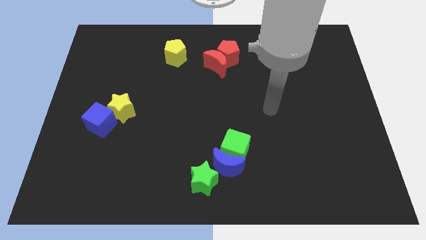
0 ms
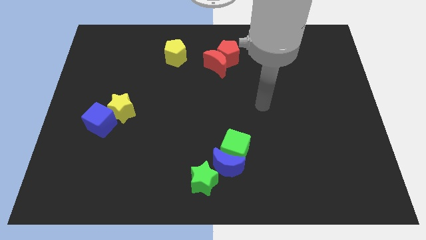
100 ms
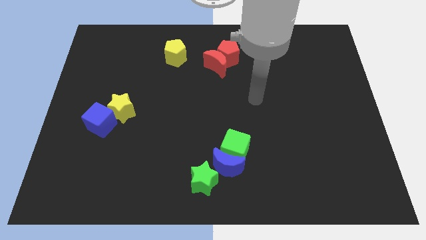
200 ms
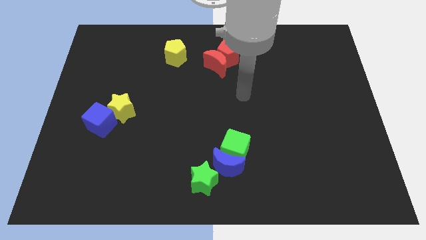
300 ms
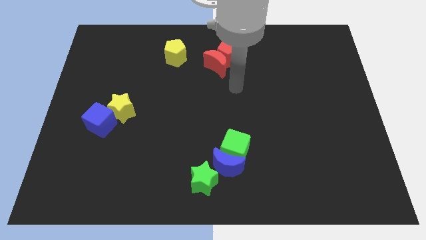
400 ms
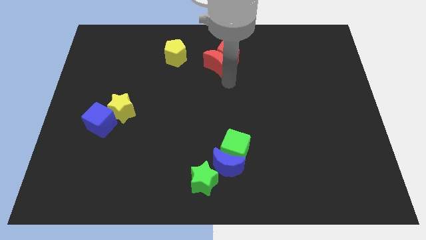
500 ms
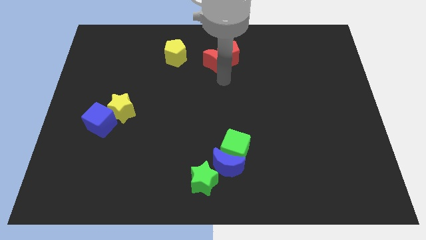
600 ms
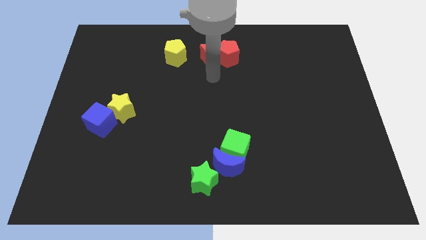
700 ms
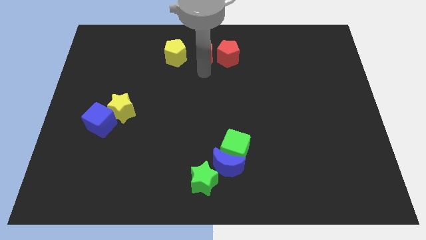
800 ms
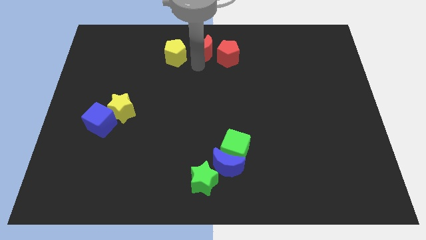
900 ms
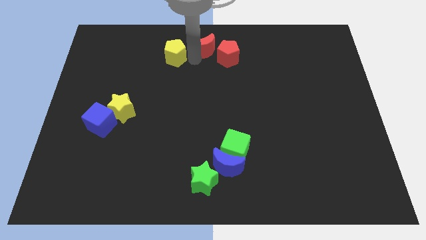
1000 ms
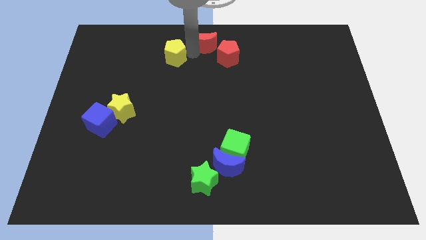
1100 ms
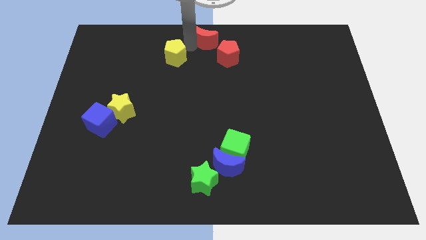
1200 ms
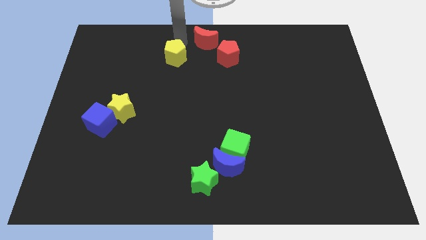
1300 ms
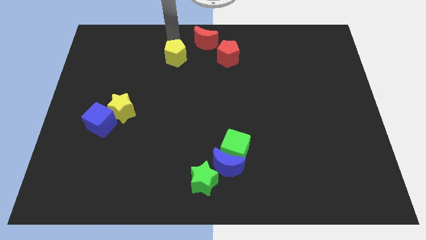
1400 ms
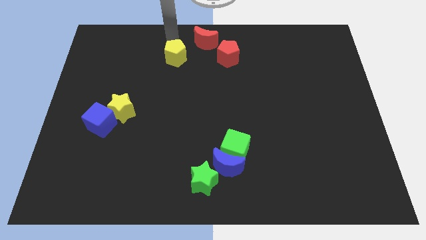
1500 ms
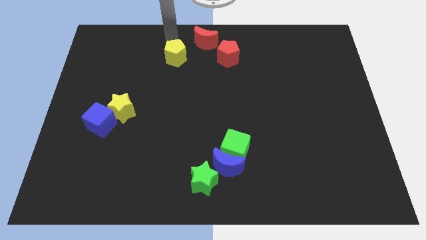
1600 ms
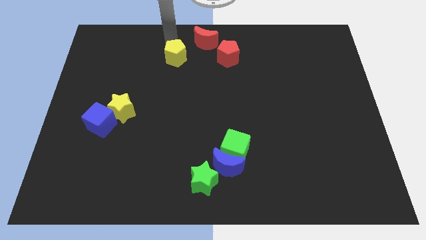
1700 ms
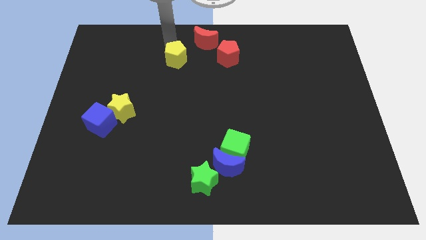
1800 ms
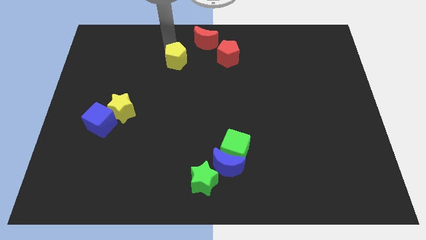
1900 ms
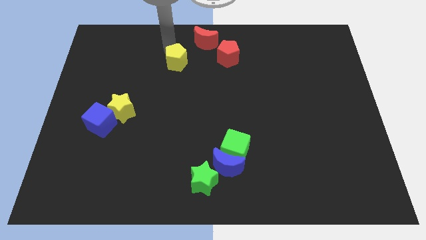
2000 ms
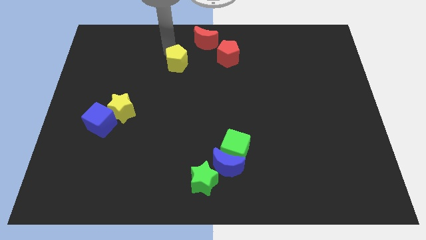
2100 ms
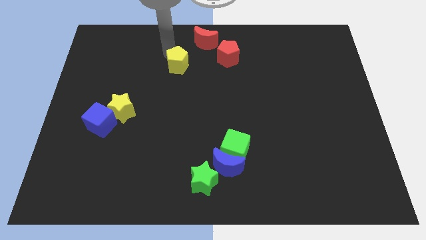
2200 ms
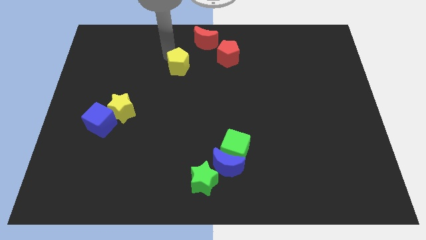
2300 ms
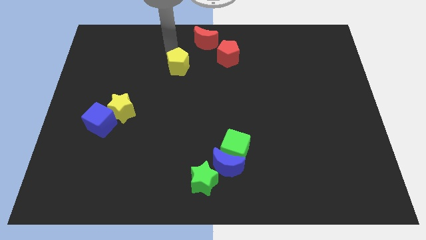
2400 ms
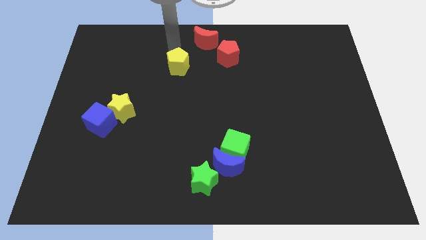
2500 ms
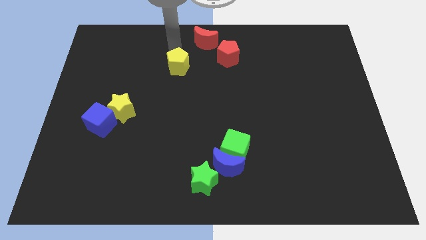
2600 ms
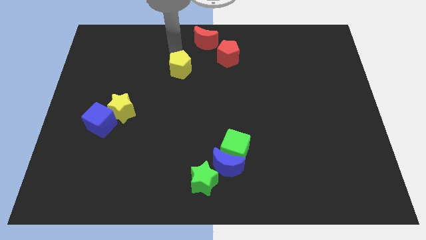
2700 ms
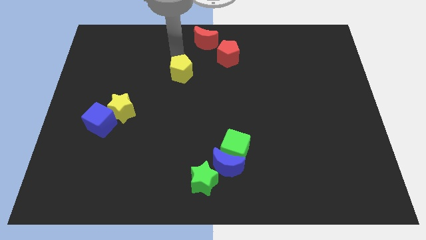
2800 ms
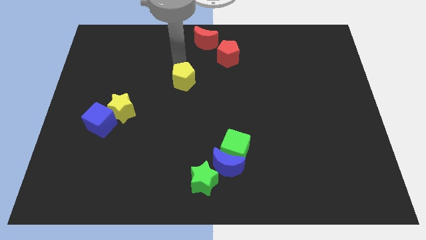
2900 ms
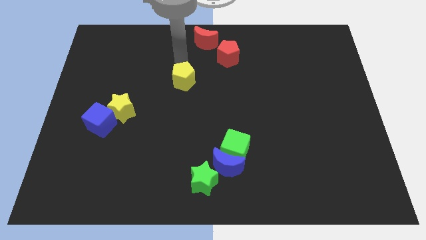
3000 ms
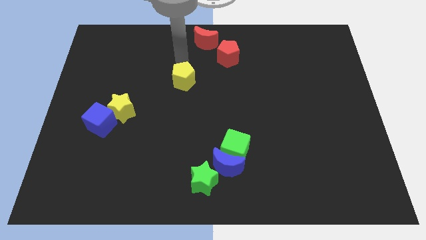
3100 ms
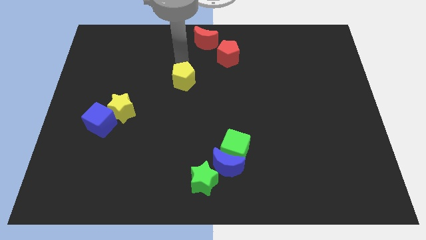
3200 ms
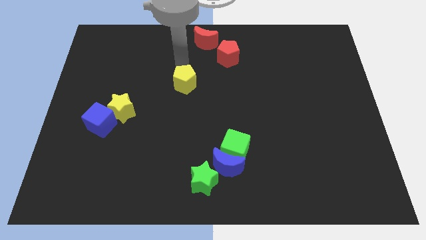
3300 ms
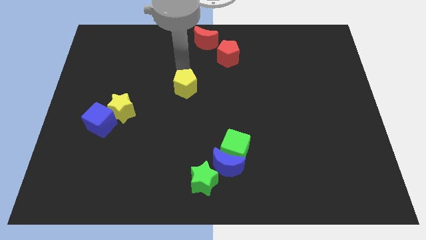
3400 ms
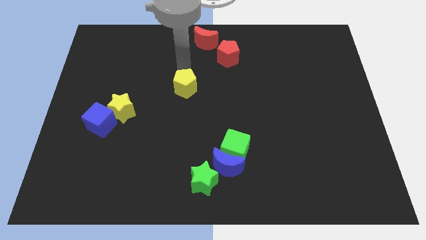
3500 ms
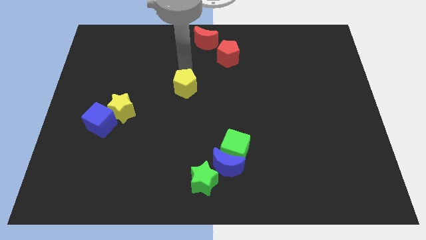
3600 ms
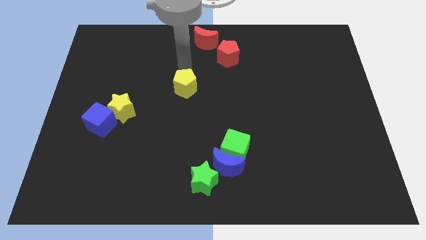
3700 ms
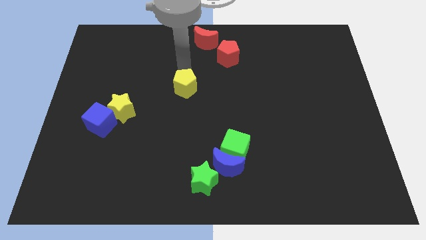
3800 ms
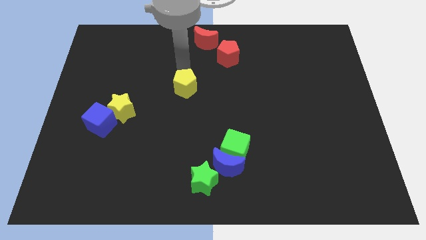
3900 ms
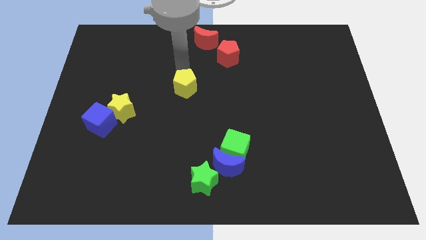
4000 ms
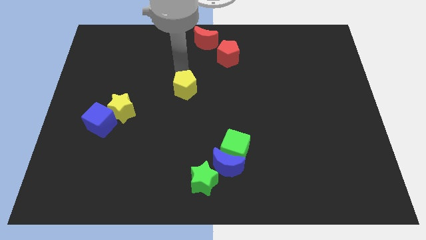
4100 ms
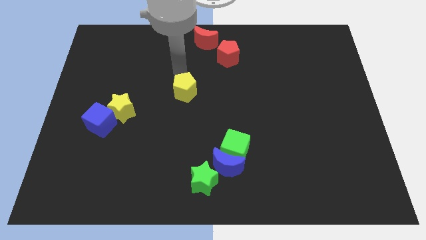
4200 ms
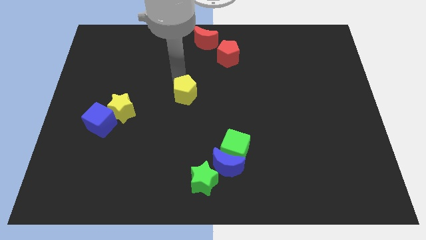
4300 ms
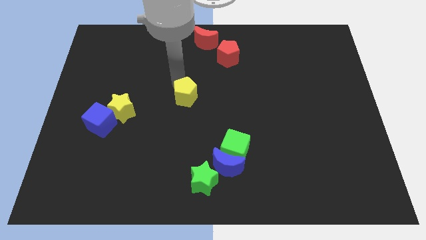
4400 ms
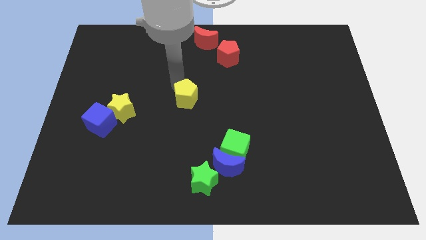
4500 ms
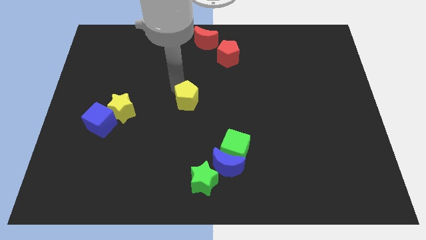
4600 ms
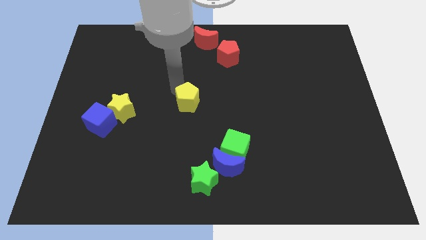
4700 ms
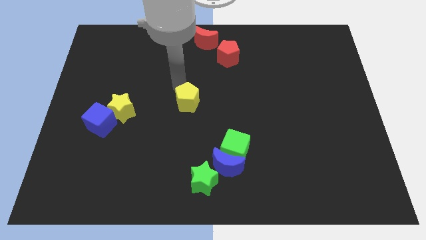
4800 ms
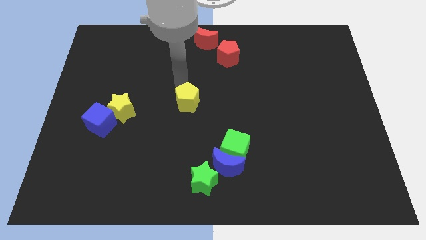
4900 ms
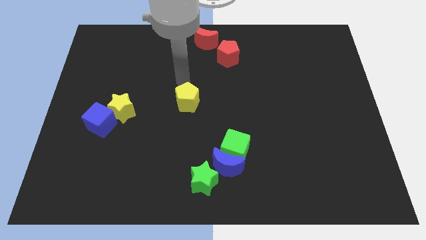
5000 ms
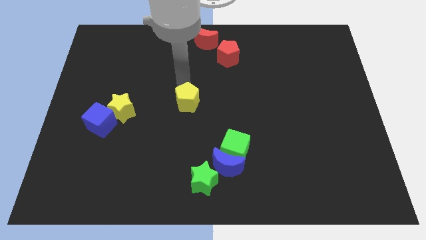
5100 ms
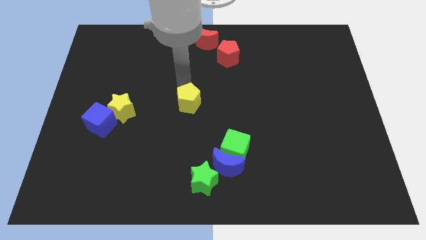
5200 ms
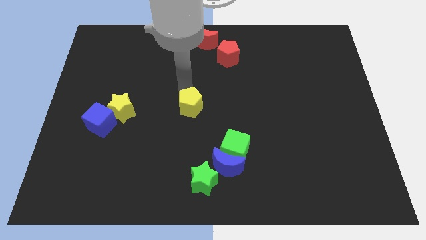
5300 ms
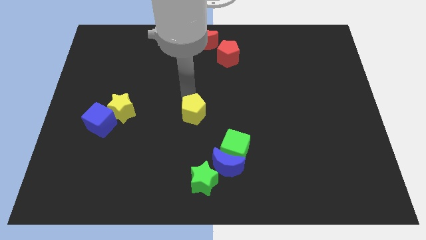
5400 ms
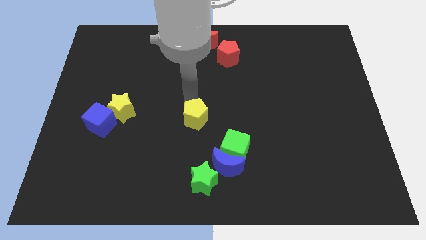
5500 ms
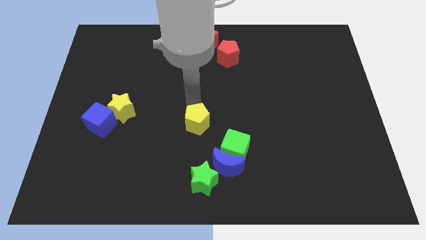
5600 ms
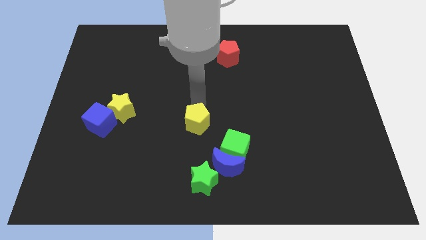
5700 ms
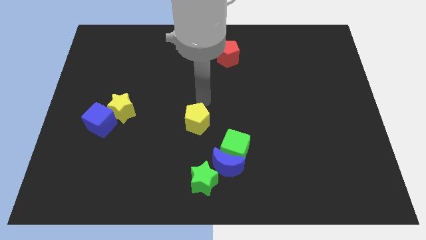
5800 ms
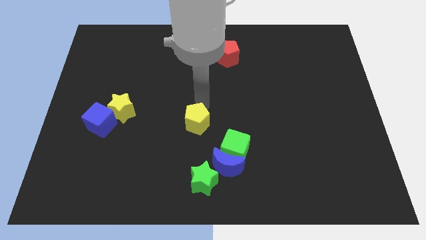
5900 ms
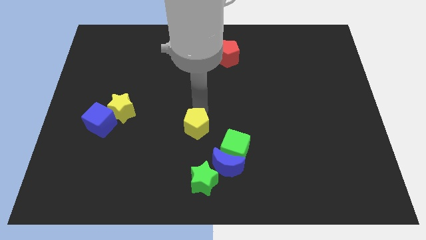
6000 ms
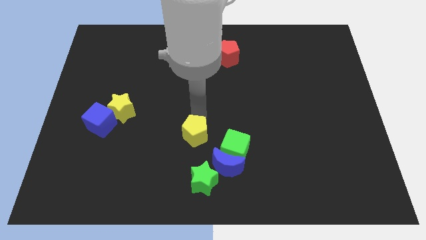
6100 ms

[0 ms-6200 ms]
move the yellow pentagon to the left side of the green cube
